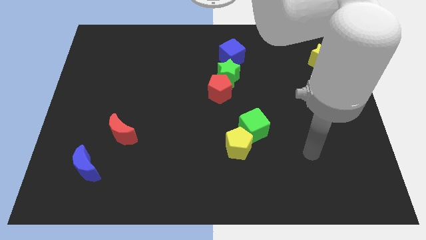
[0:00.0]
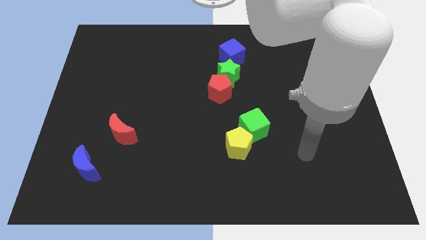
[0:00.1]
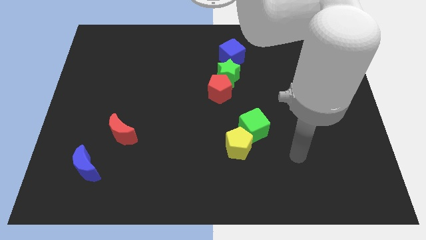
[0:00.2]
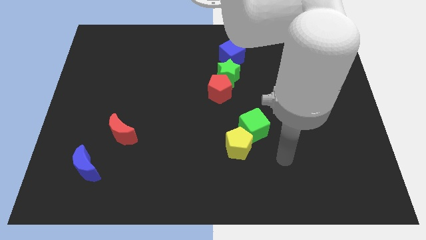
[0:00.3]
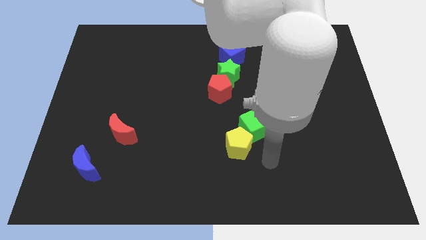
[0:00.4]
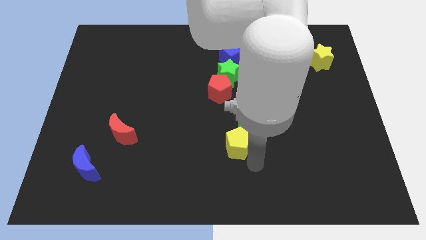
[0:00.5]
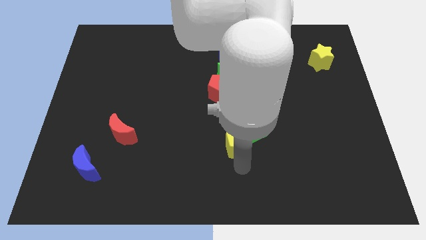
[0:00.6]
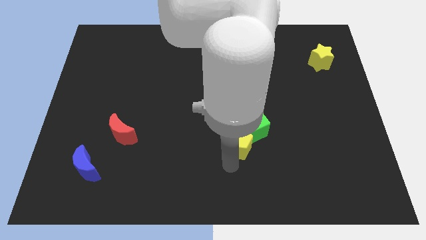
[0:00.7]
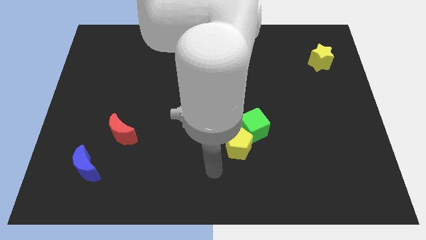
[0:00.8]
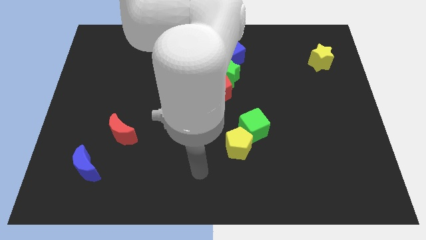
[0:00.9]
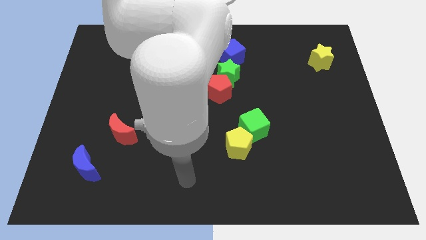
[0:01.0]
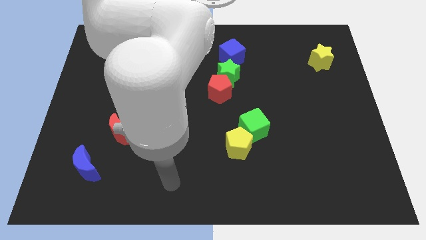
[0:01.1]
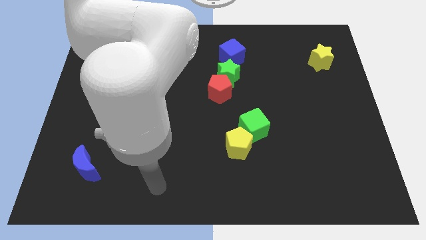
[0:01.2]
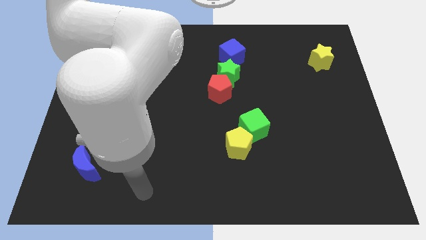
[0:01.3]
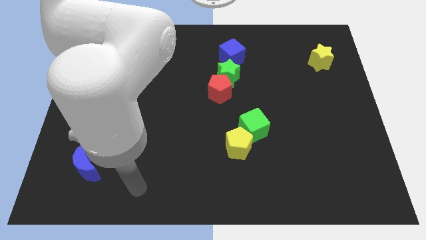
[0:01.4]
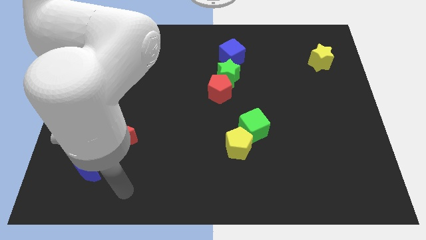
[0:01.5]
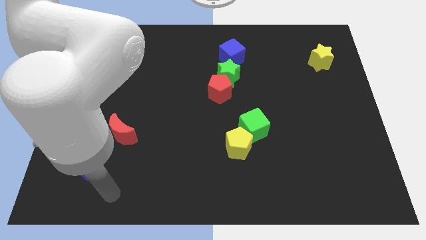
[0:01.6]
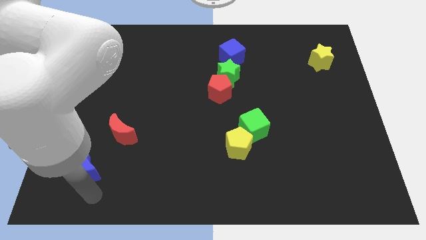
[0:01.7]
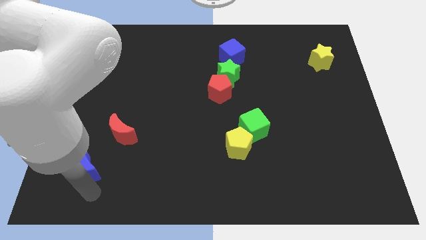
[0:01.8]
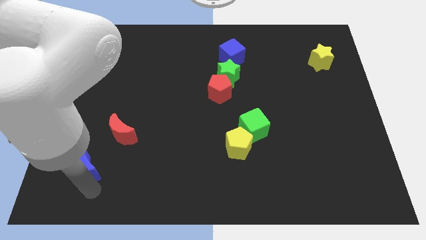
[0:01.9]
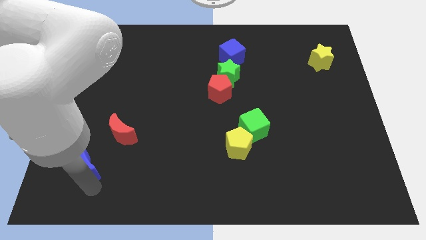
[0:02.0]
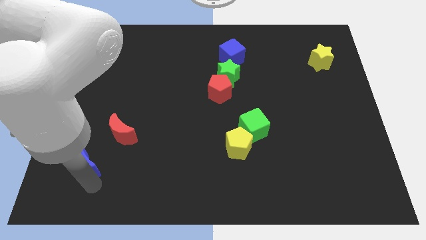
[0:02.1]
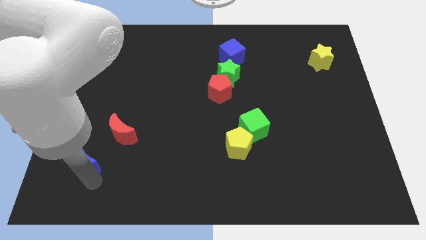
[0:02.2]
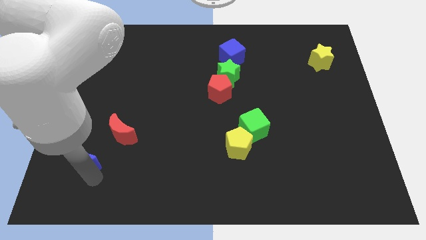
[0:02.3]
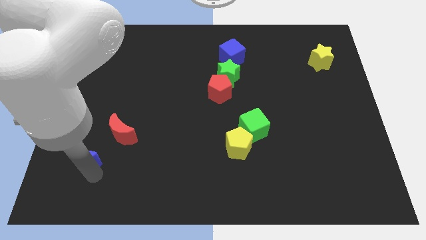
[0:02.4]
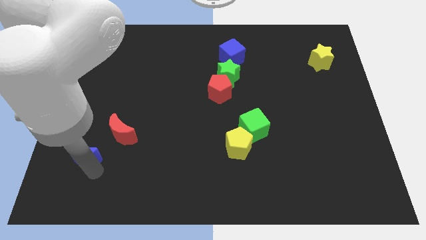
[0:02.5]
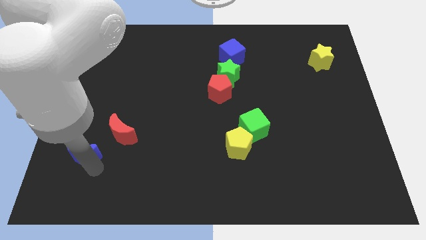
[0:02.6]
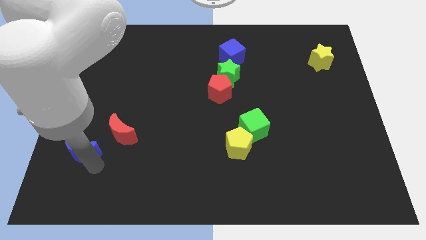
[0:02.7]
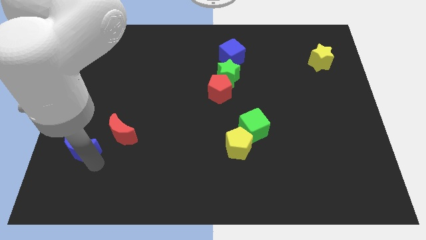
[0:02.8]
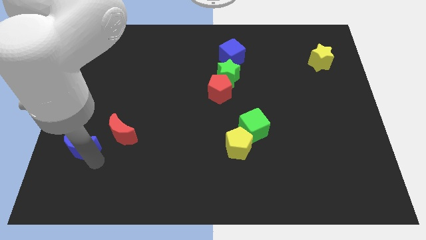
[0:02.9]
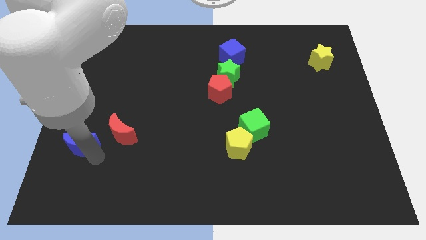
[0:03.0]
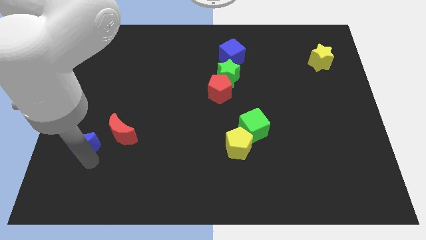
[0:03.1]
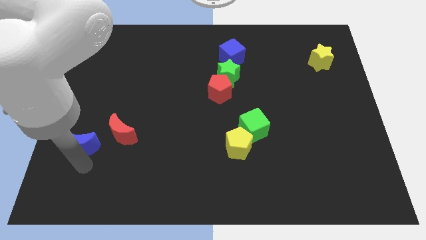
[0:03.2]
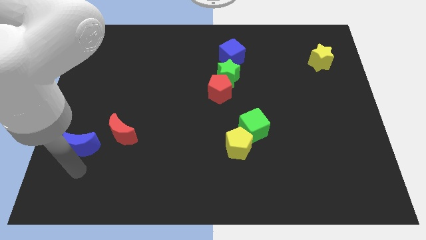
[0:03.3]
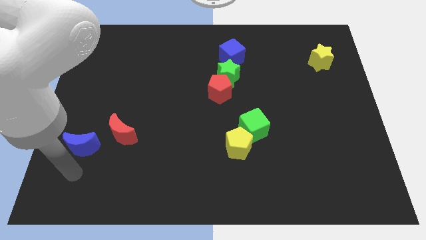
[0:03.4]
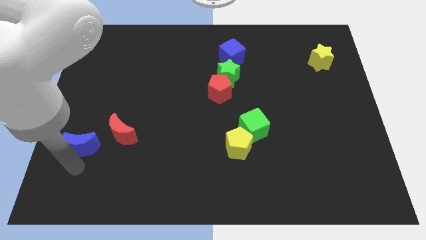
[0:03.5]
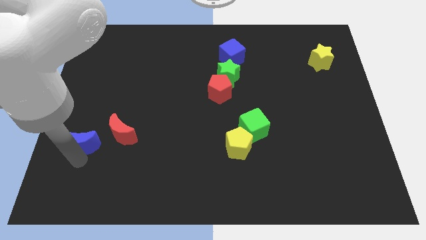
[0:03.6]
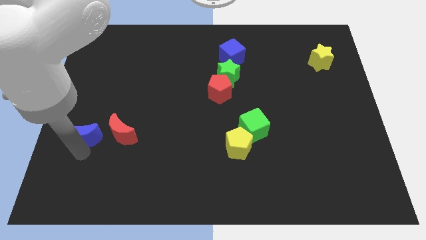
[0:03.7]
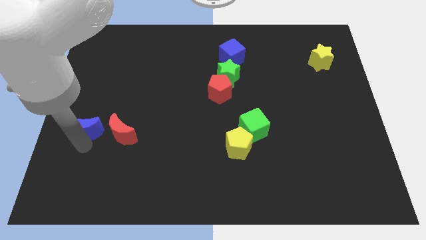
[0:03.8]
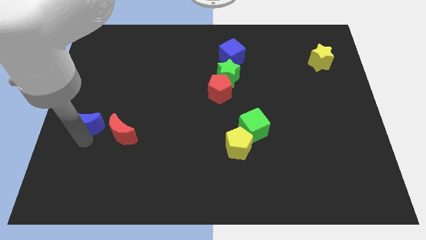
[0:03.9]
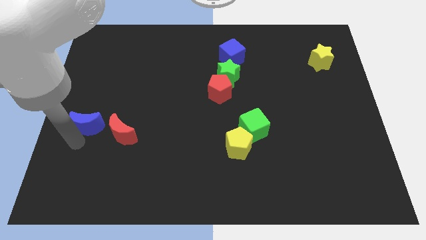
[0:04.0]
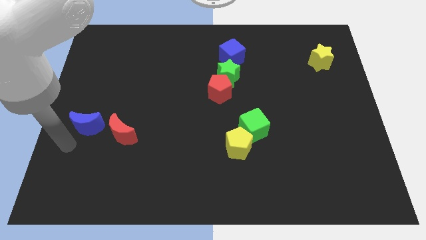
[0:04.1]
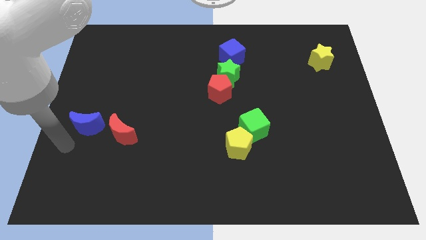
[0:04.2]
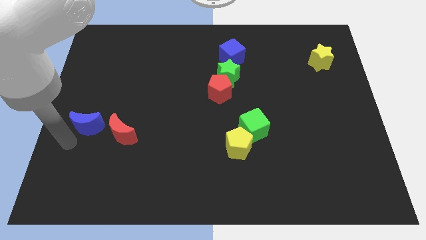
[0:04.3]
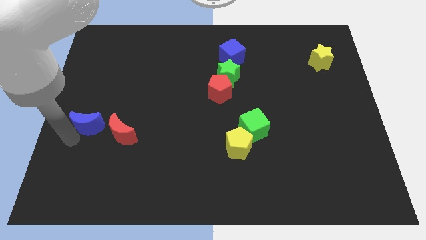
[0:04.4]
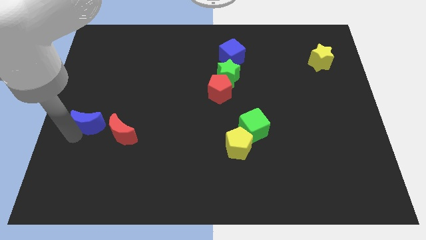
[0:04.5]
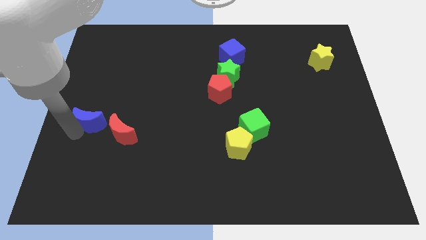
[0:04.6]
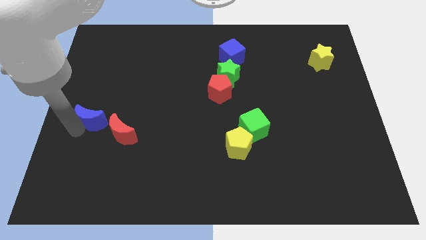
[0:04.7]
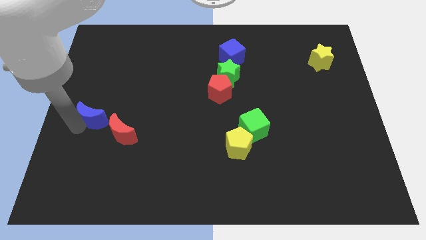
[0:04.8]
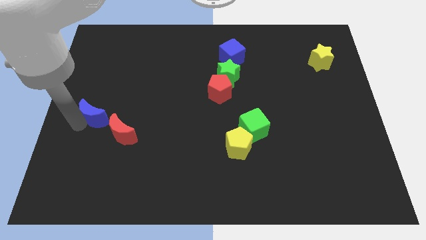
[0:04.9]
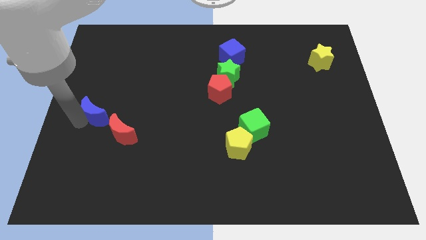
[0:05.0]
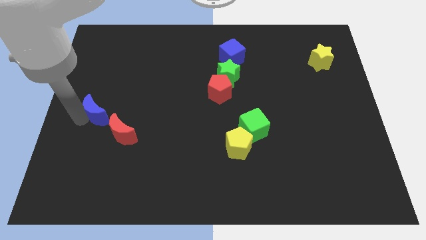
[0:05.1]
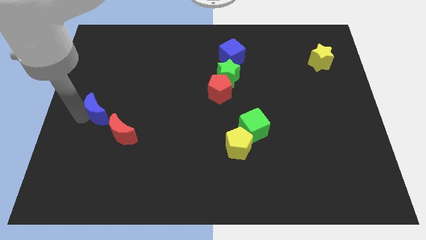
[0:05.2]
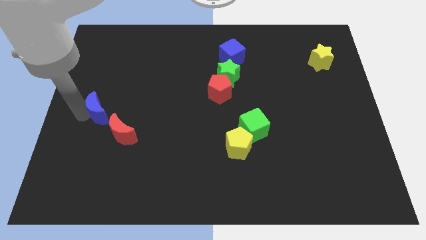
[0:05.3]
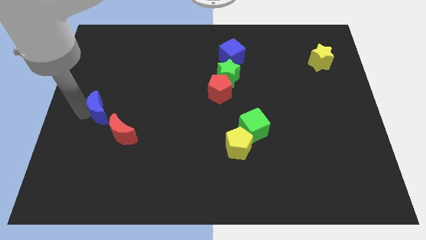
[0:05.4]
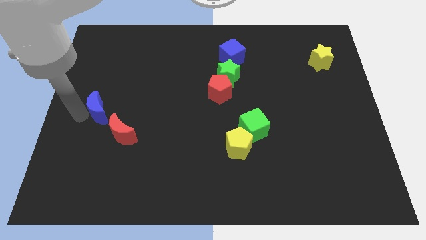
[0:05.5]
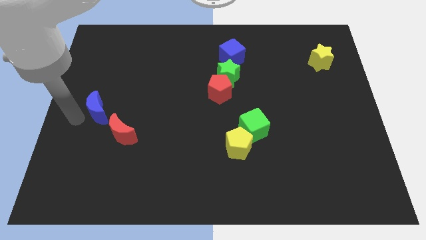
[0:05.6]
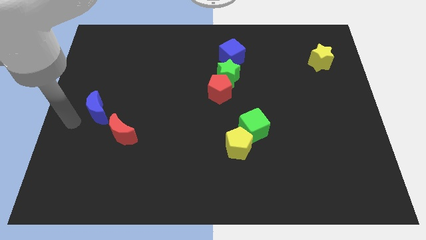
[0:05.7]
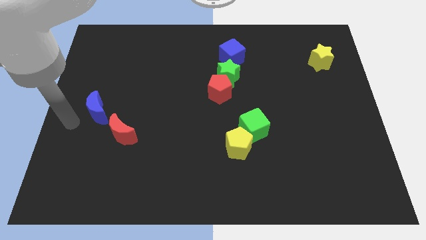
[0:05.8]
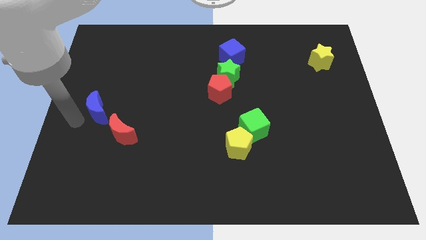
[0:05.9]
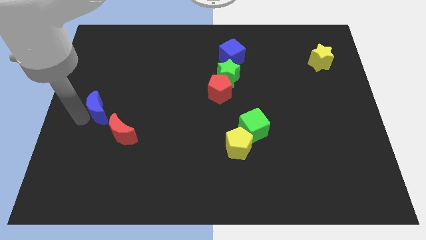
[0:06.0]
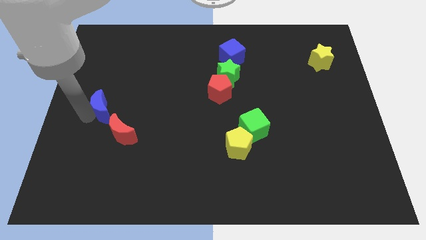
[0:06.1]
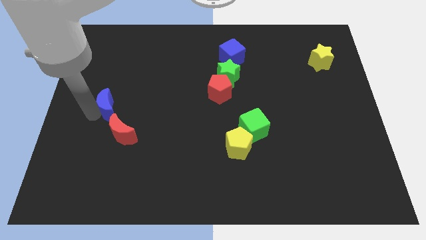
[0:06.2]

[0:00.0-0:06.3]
push the blue moon above the red moon

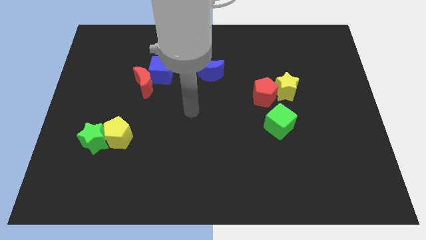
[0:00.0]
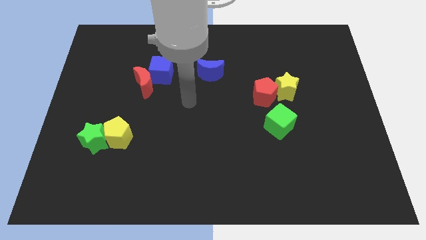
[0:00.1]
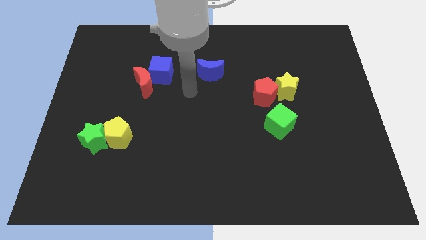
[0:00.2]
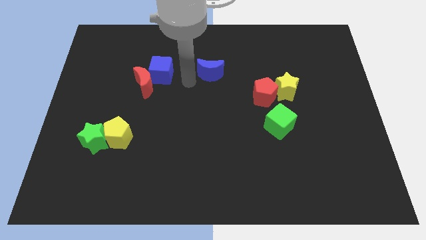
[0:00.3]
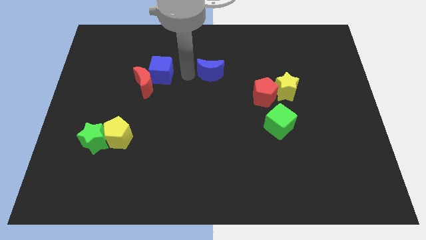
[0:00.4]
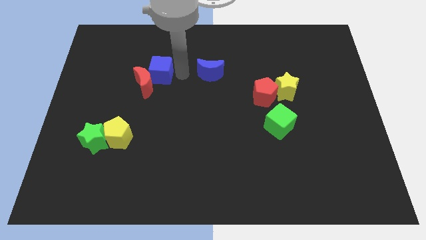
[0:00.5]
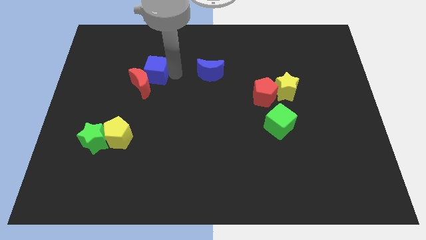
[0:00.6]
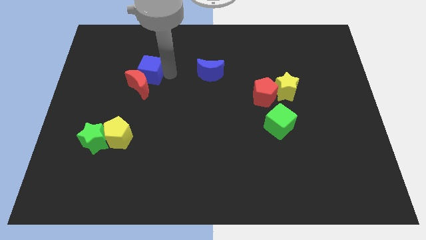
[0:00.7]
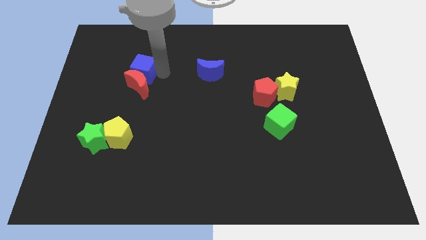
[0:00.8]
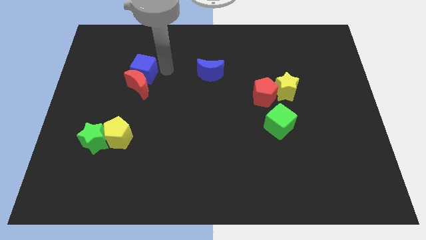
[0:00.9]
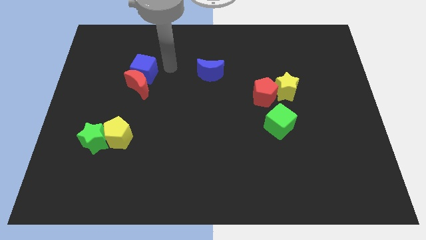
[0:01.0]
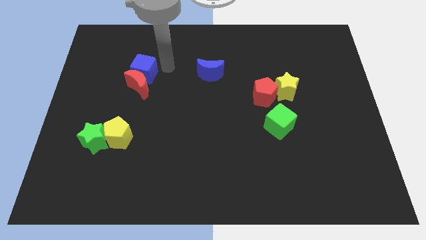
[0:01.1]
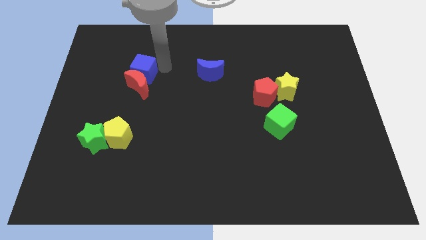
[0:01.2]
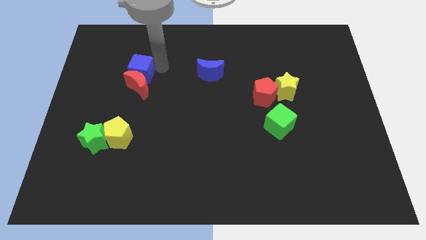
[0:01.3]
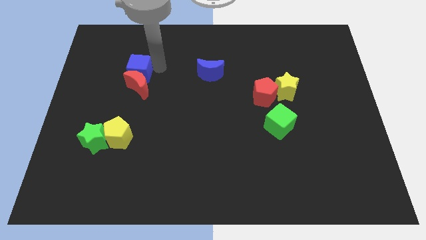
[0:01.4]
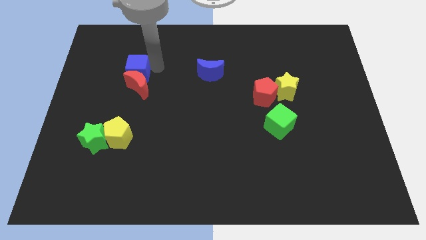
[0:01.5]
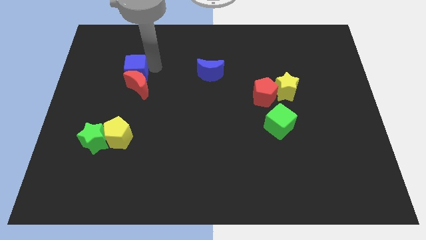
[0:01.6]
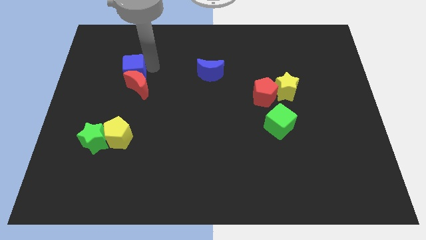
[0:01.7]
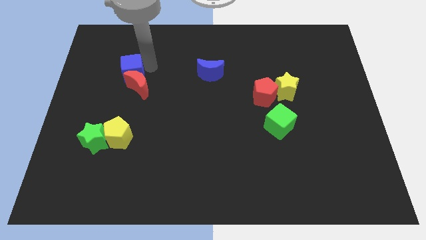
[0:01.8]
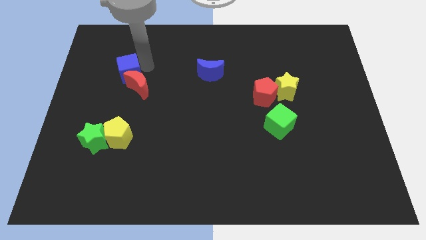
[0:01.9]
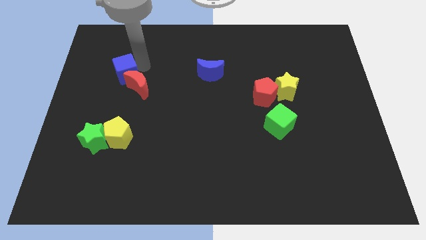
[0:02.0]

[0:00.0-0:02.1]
push the blue cube just left of the red moon
